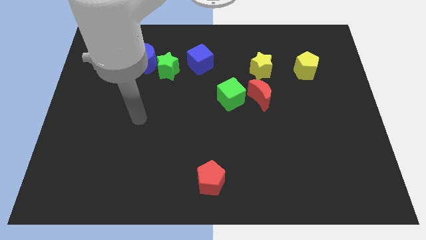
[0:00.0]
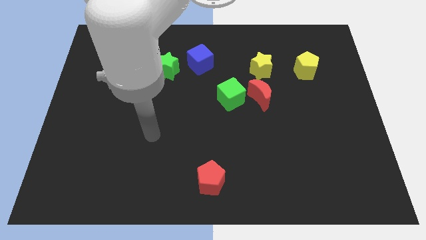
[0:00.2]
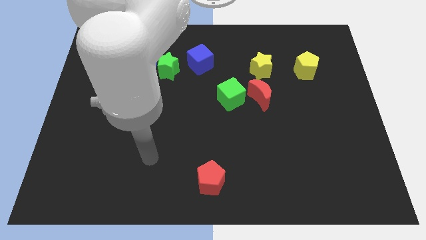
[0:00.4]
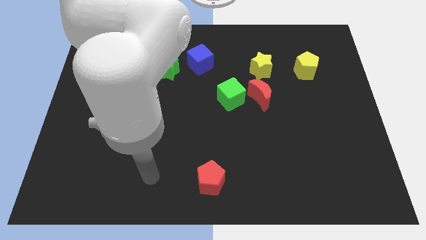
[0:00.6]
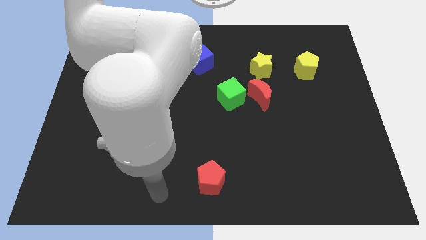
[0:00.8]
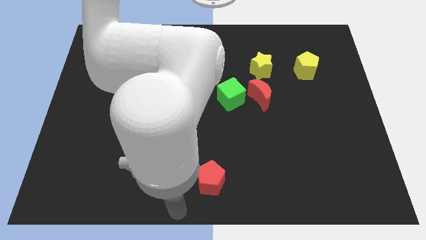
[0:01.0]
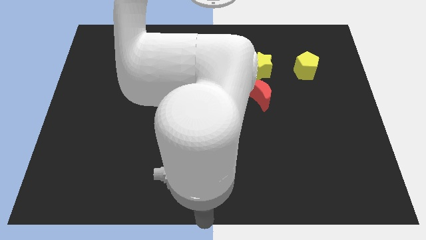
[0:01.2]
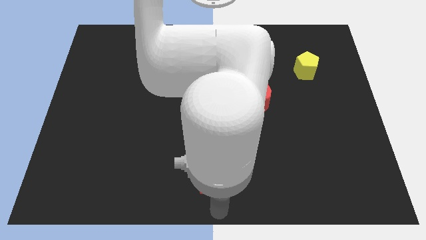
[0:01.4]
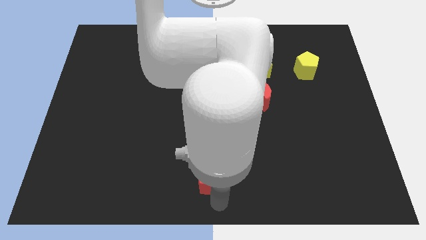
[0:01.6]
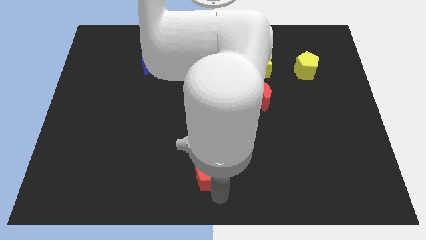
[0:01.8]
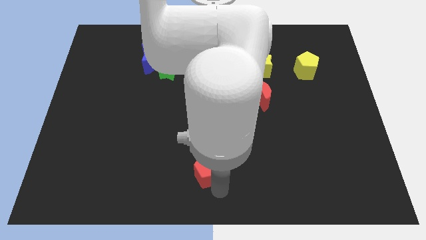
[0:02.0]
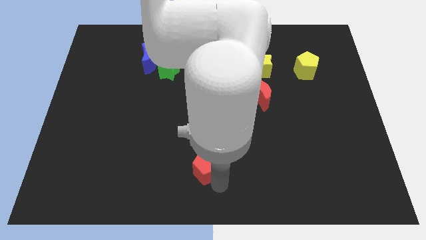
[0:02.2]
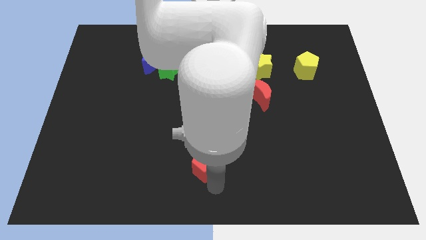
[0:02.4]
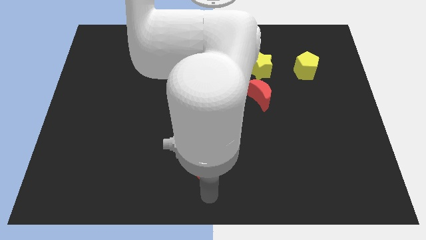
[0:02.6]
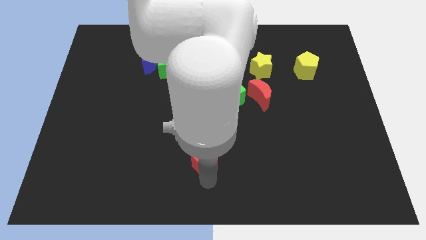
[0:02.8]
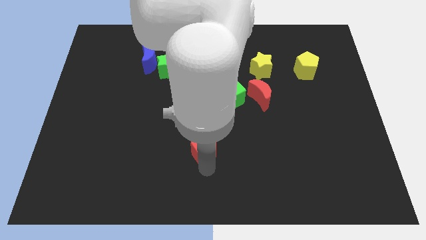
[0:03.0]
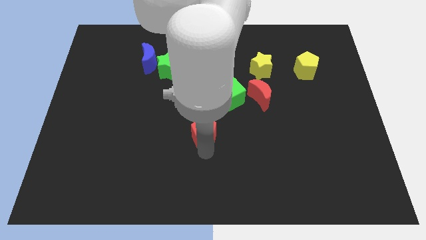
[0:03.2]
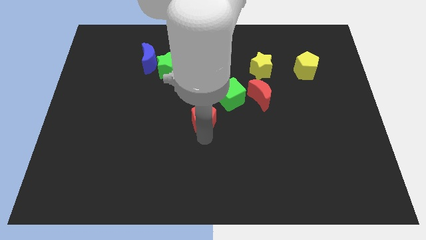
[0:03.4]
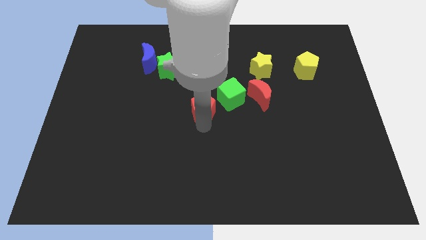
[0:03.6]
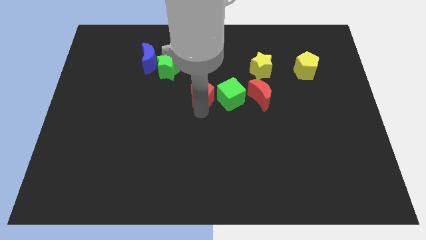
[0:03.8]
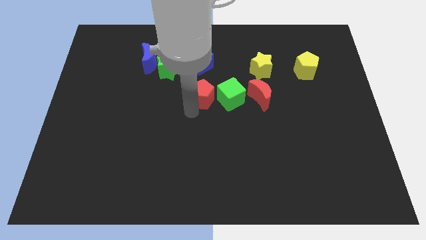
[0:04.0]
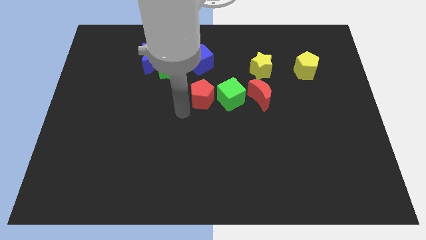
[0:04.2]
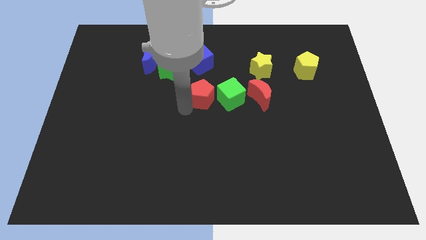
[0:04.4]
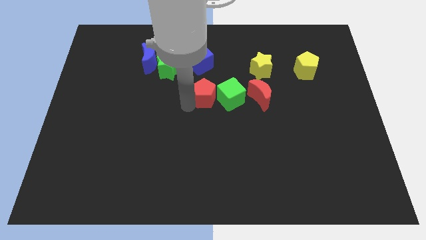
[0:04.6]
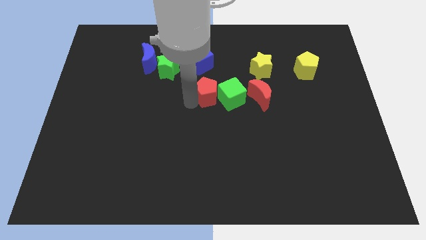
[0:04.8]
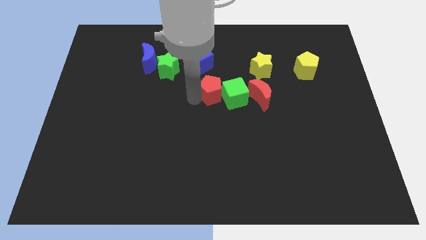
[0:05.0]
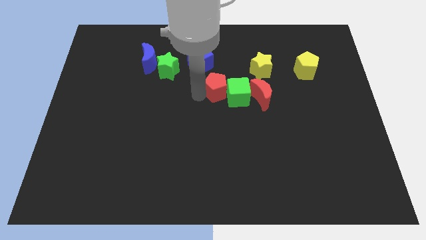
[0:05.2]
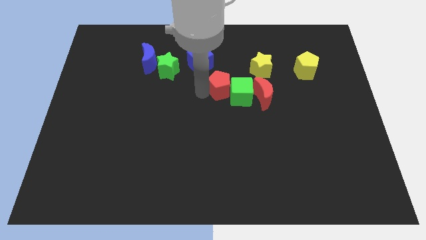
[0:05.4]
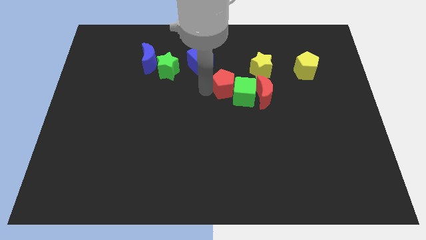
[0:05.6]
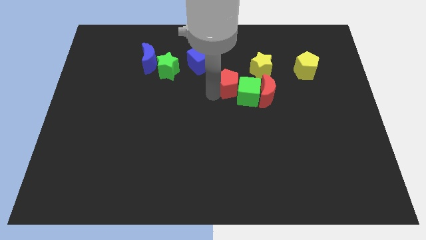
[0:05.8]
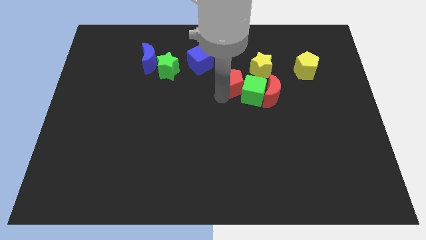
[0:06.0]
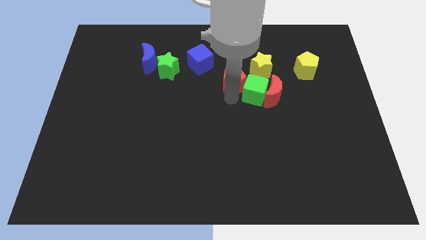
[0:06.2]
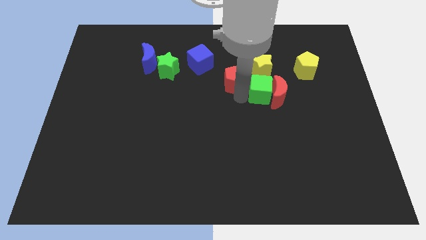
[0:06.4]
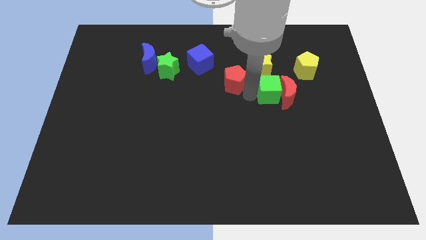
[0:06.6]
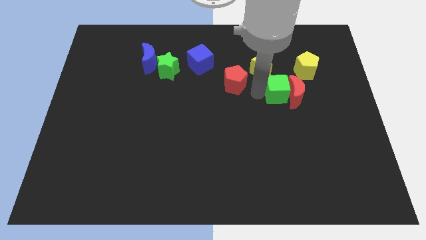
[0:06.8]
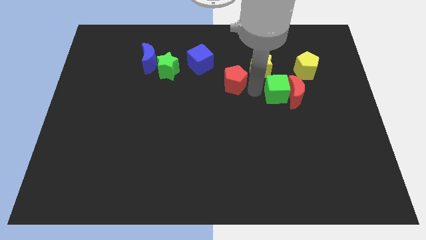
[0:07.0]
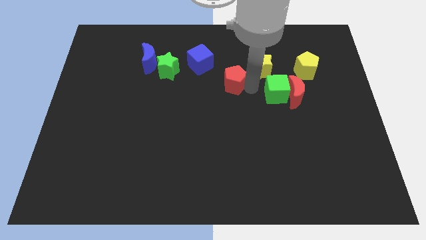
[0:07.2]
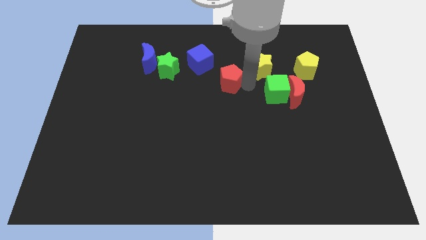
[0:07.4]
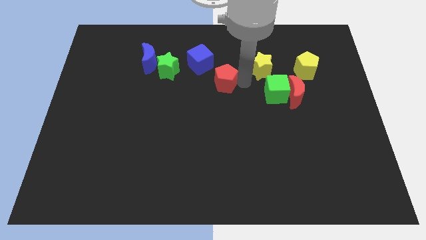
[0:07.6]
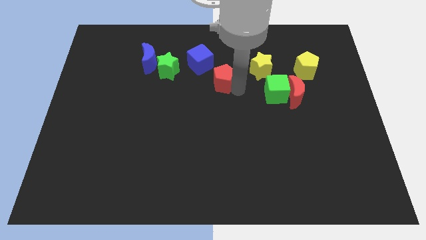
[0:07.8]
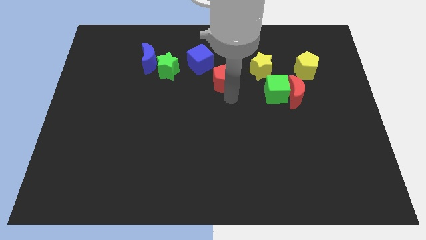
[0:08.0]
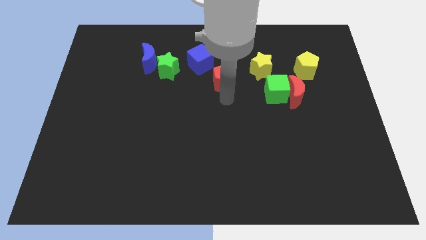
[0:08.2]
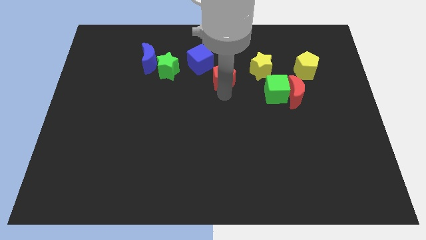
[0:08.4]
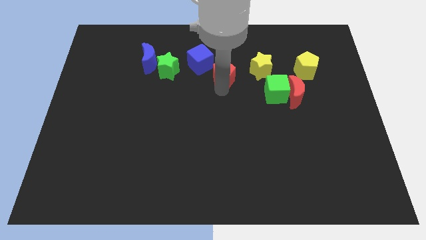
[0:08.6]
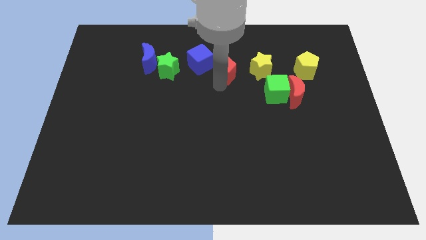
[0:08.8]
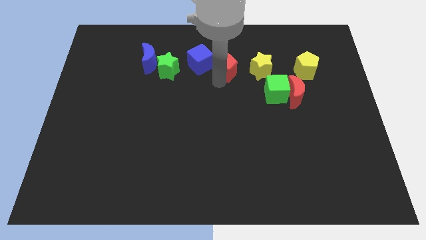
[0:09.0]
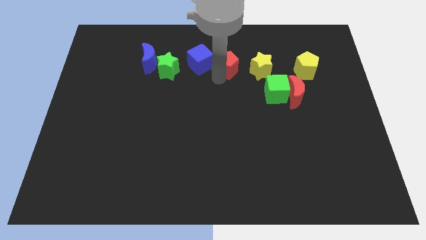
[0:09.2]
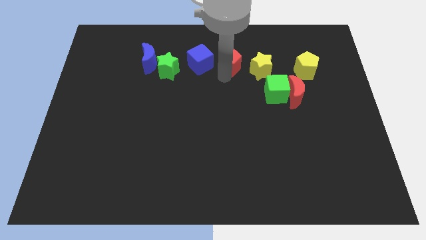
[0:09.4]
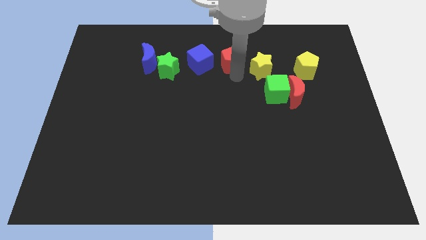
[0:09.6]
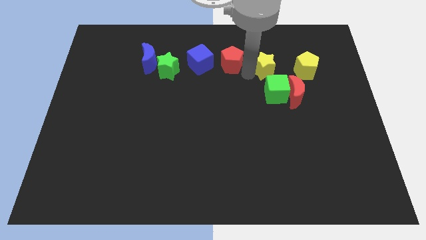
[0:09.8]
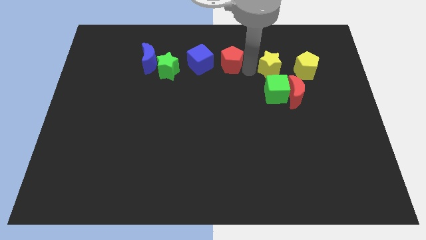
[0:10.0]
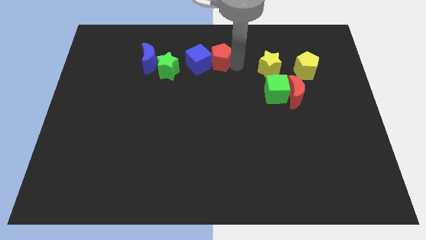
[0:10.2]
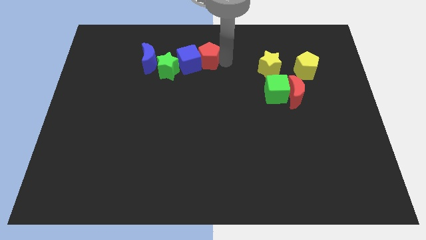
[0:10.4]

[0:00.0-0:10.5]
slide the red pentagon diagonally up and to the right of the green star

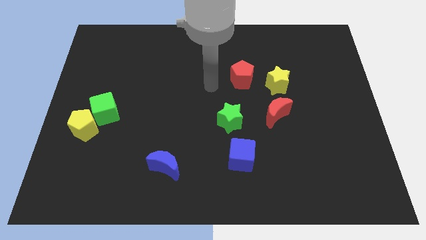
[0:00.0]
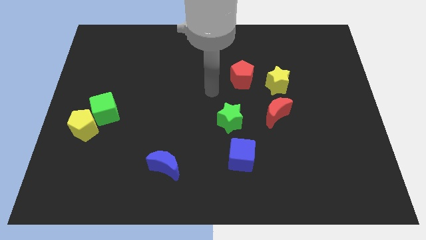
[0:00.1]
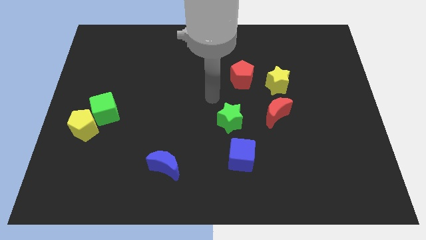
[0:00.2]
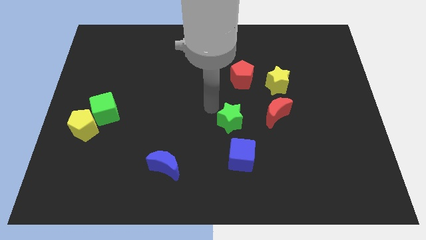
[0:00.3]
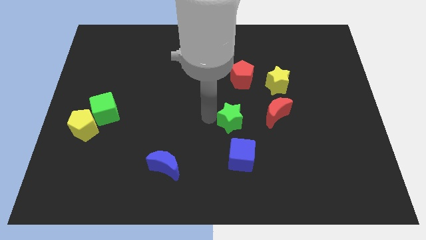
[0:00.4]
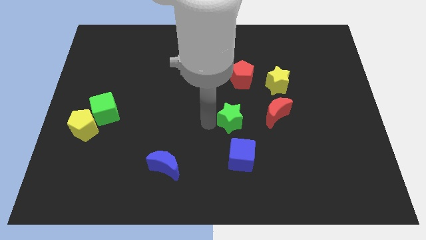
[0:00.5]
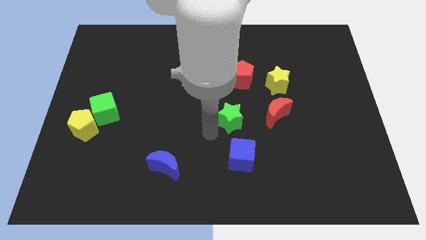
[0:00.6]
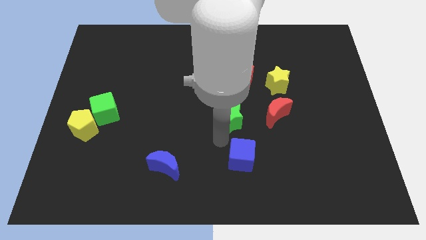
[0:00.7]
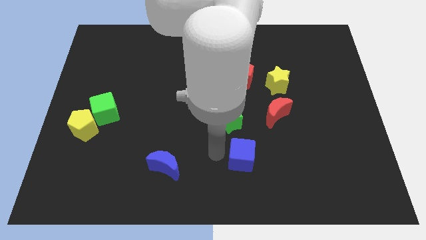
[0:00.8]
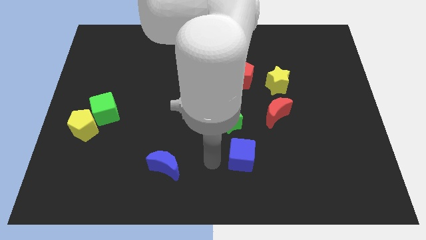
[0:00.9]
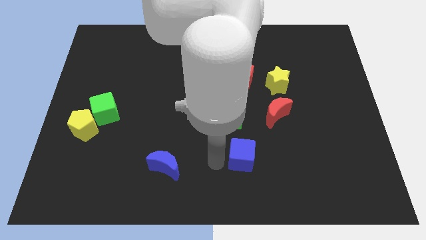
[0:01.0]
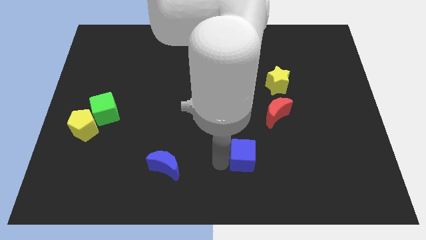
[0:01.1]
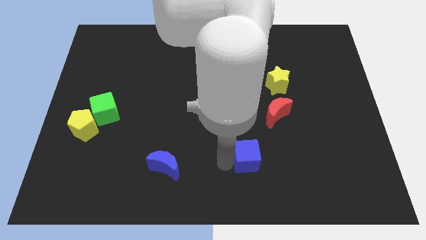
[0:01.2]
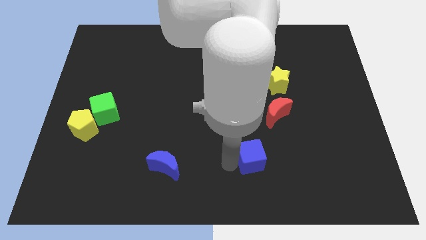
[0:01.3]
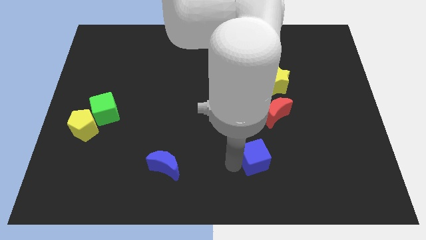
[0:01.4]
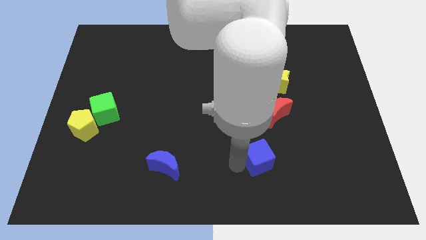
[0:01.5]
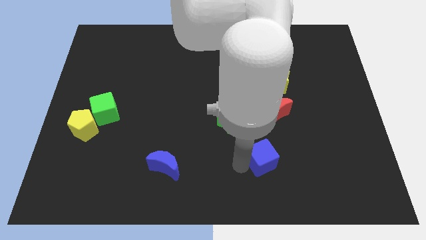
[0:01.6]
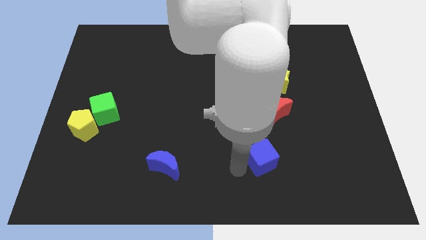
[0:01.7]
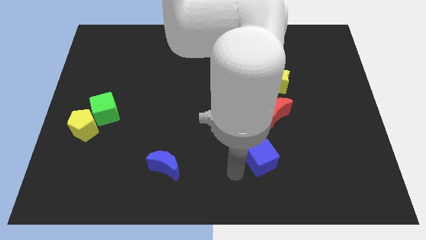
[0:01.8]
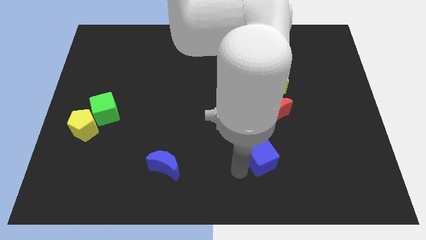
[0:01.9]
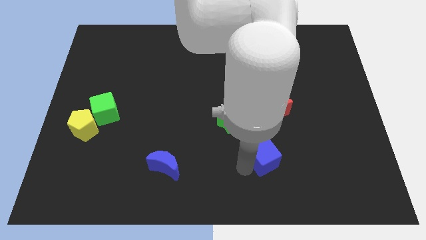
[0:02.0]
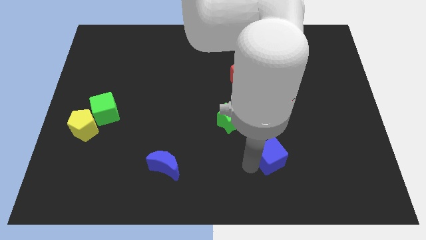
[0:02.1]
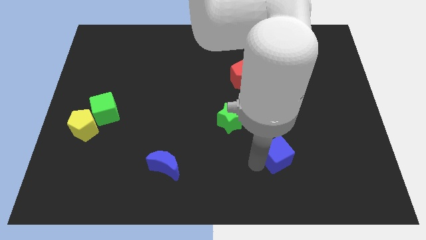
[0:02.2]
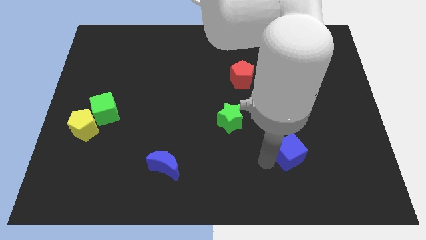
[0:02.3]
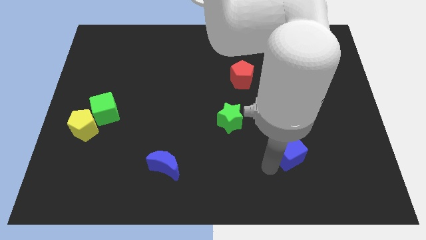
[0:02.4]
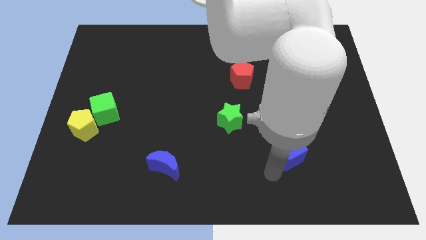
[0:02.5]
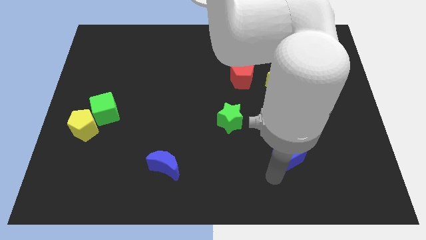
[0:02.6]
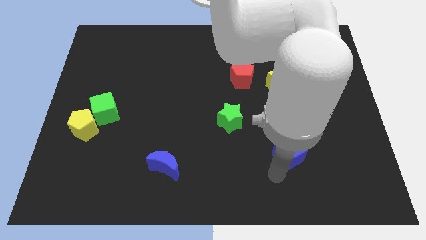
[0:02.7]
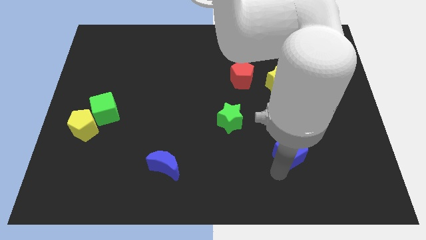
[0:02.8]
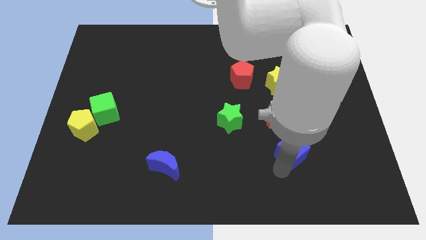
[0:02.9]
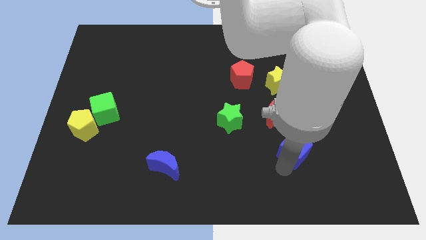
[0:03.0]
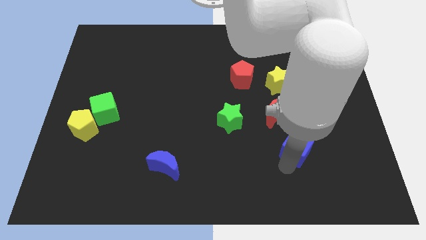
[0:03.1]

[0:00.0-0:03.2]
put the blue cube to the bottom right side of the red moon
